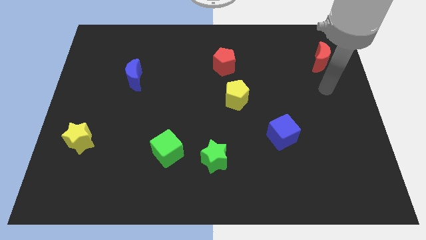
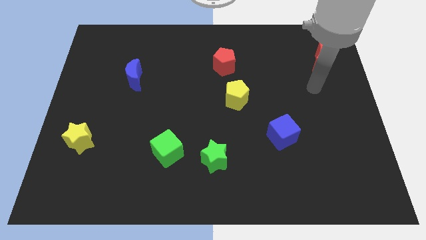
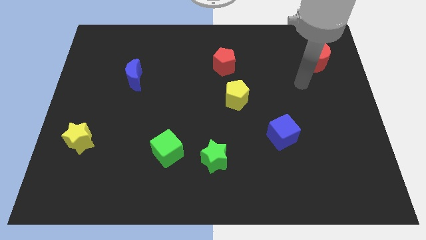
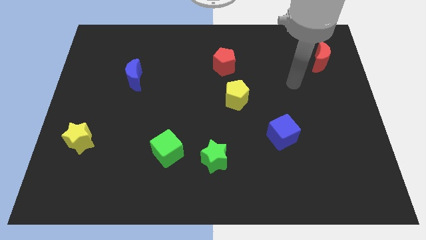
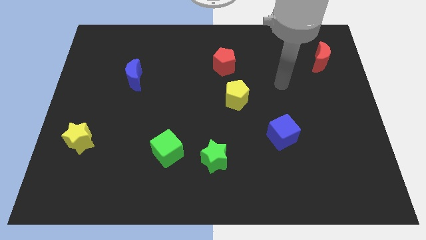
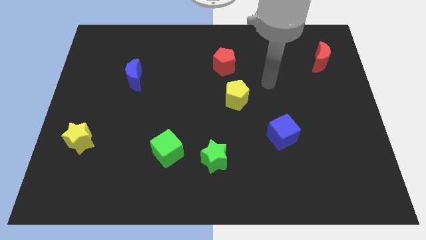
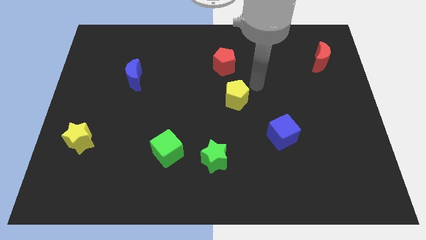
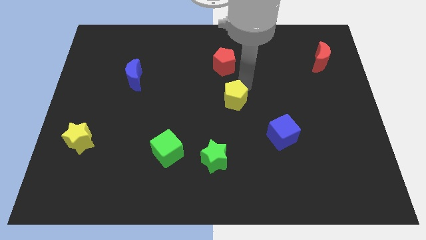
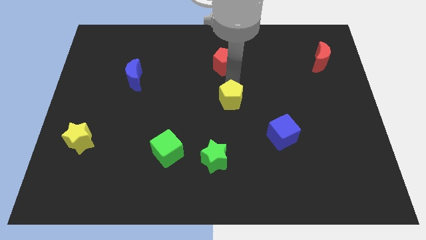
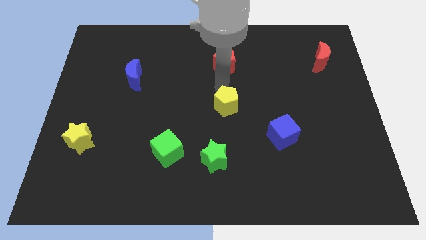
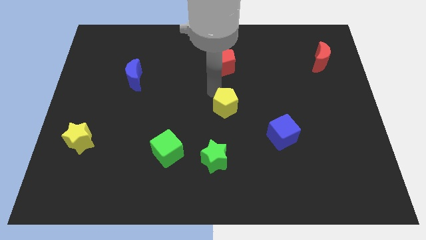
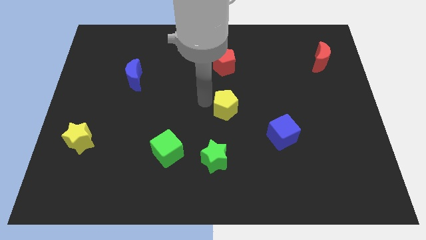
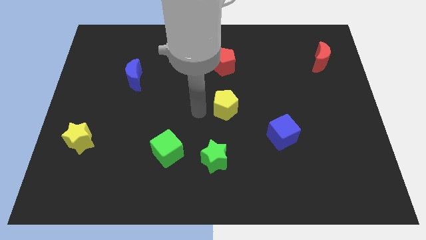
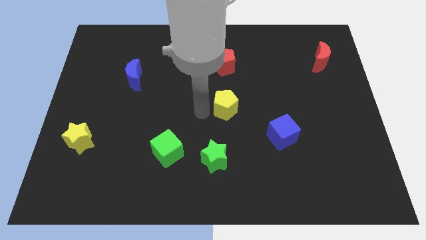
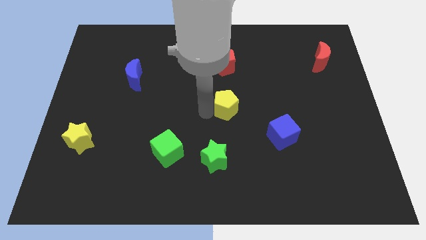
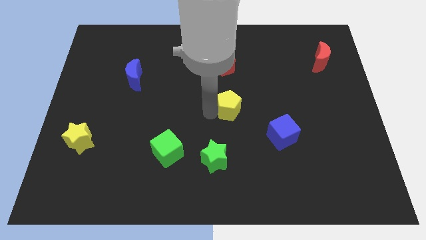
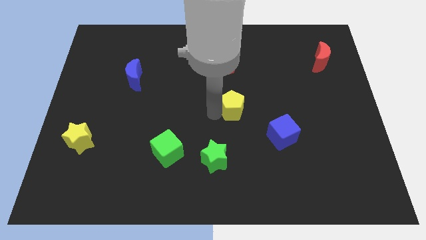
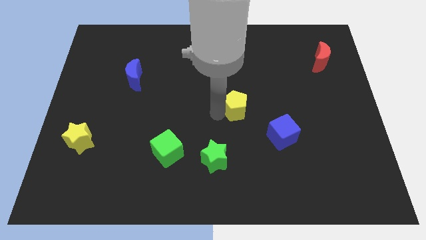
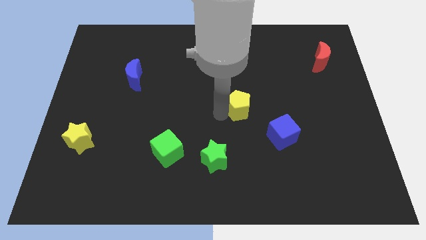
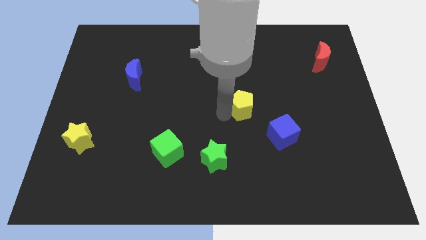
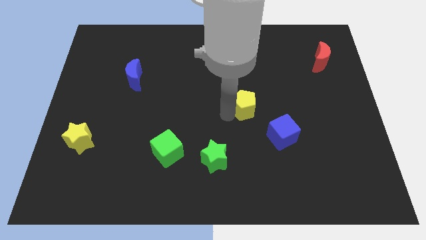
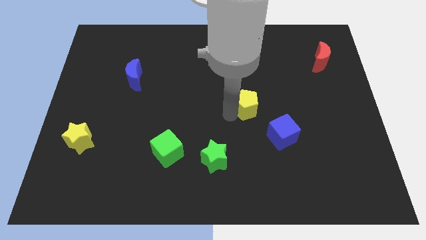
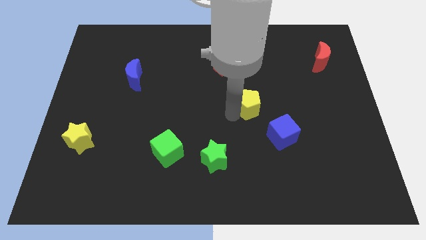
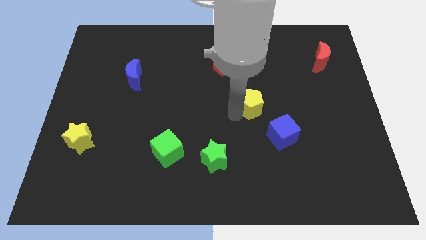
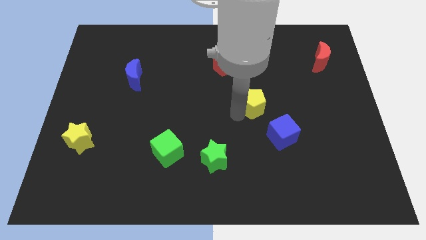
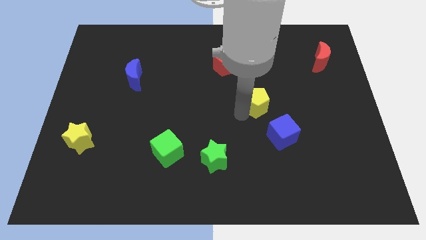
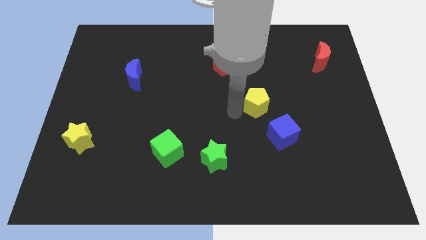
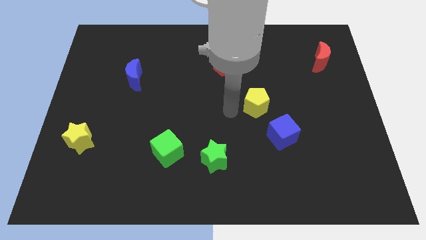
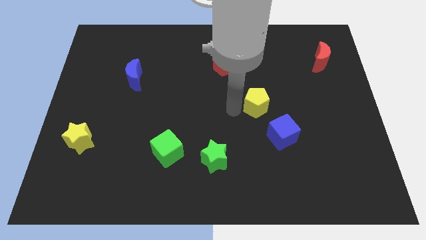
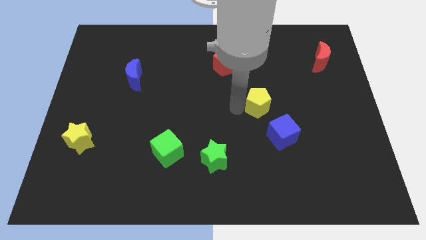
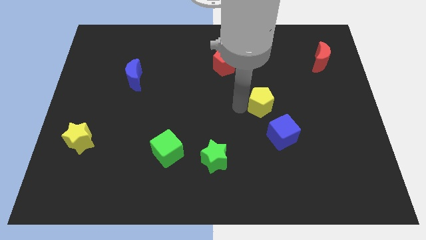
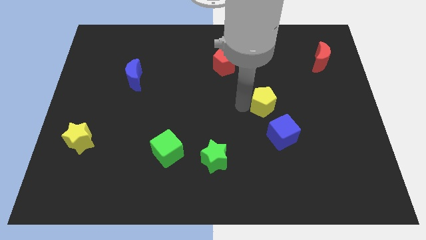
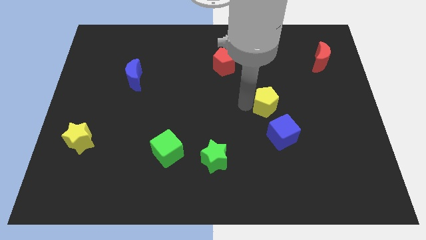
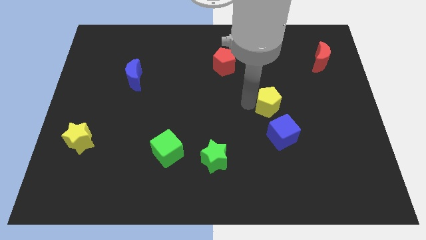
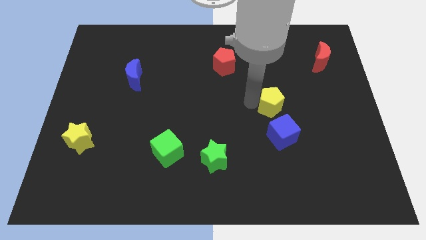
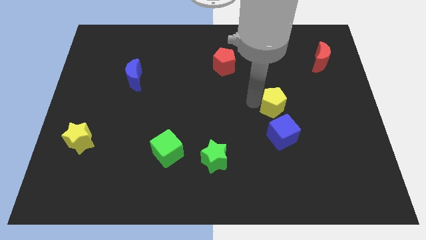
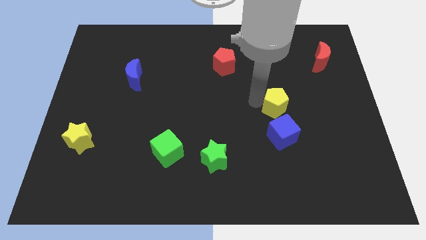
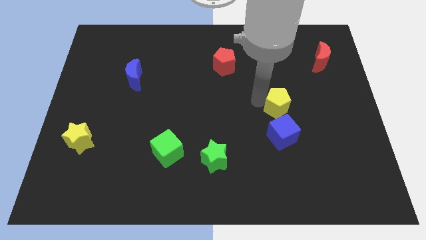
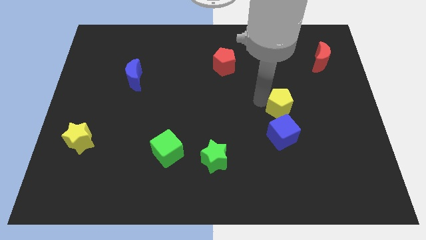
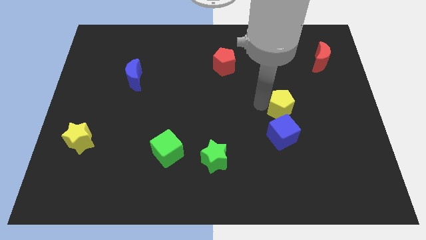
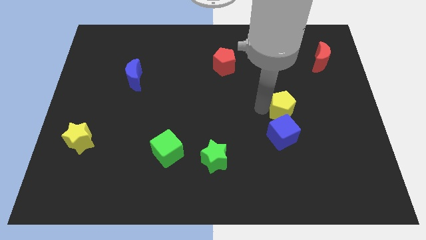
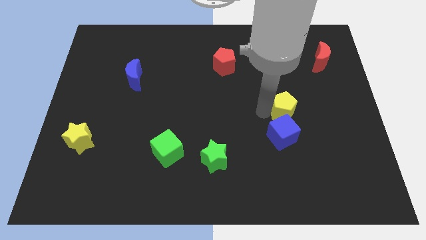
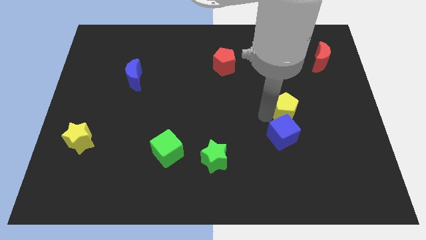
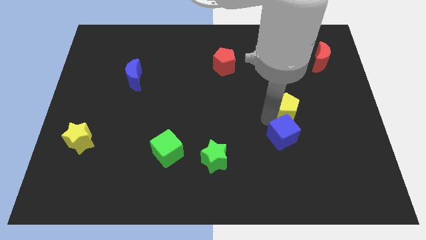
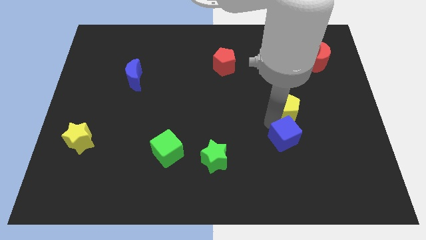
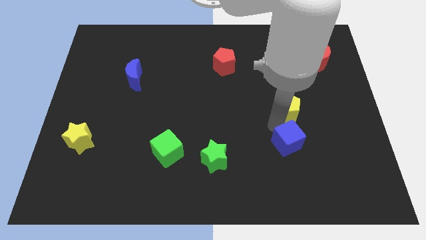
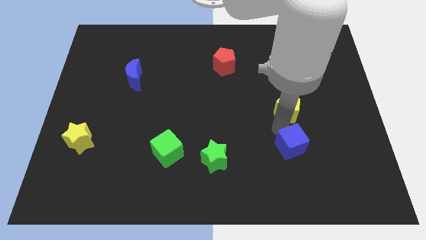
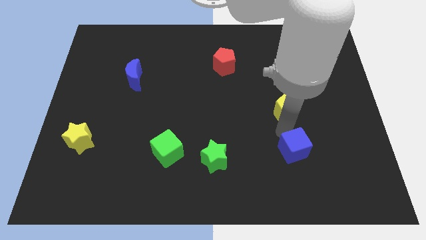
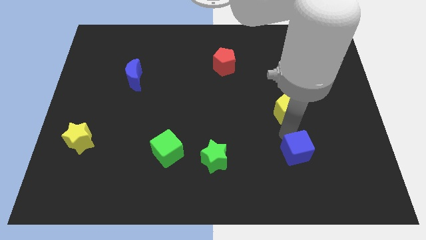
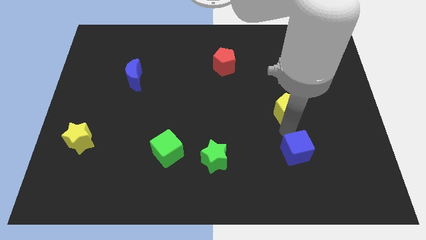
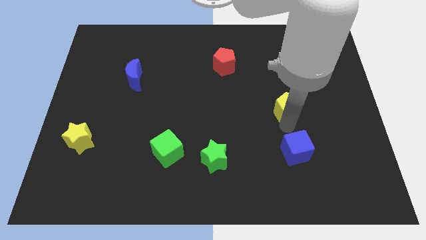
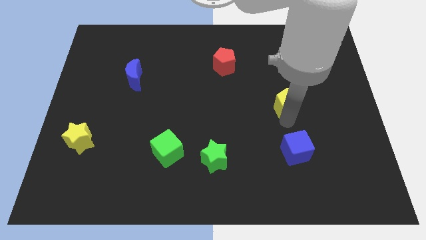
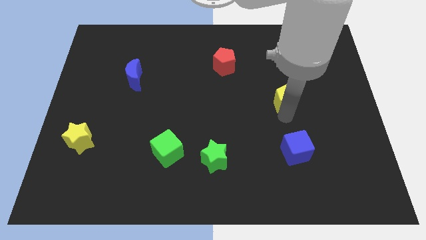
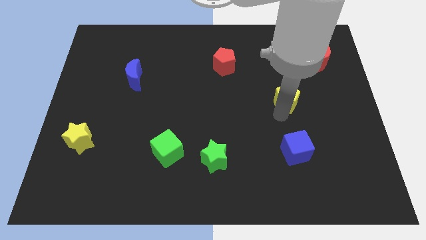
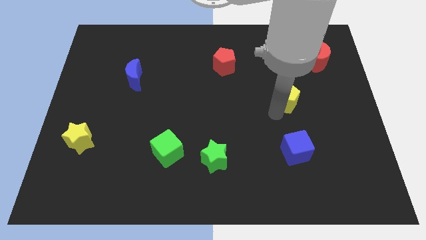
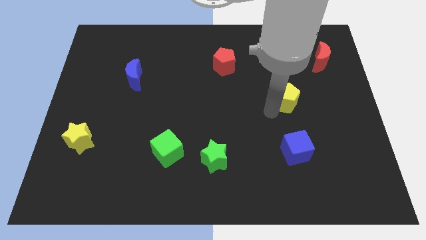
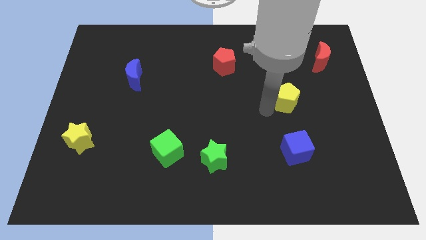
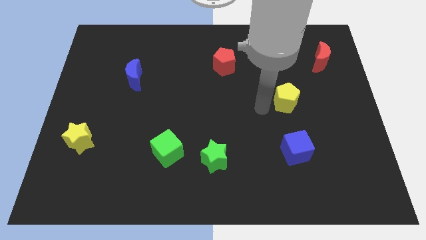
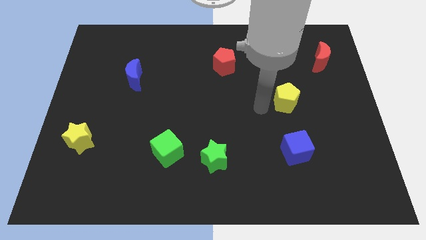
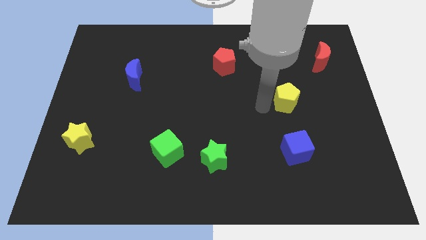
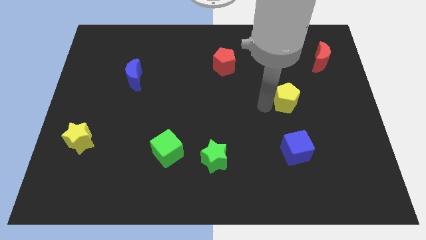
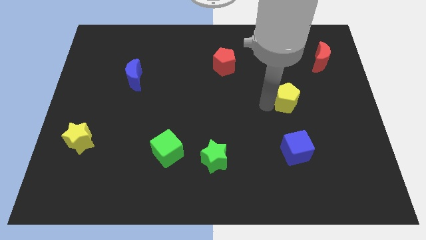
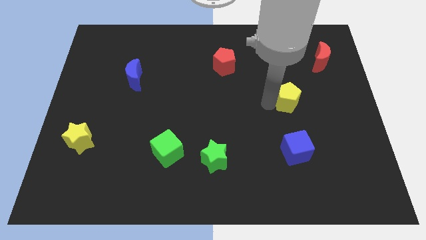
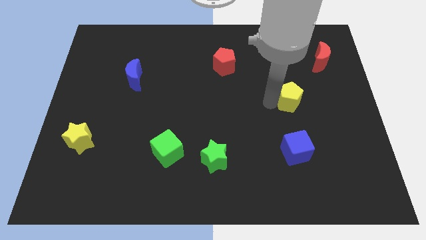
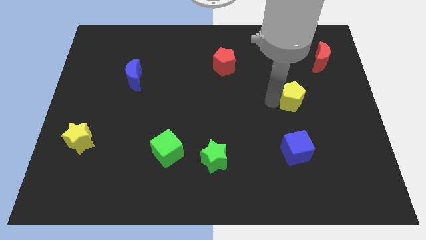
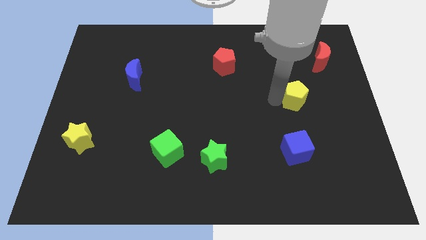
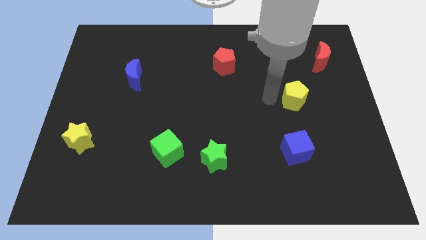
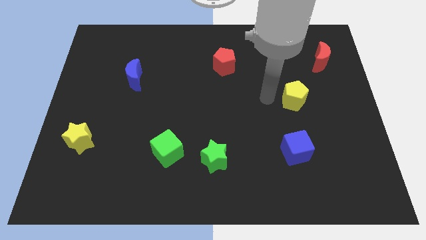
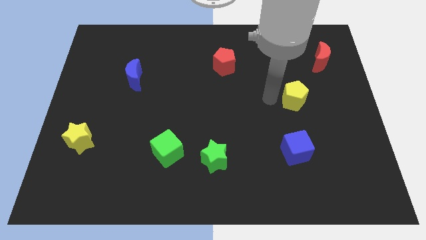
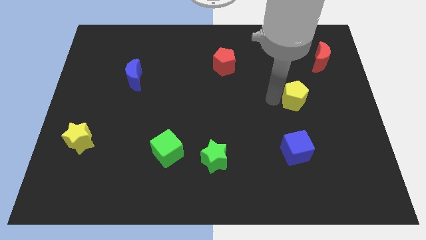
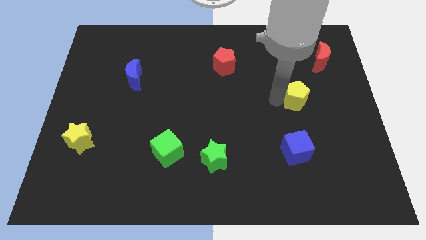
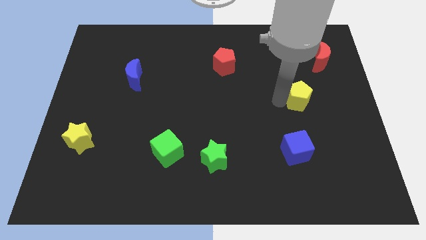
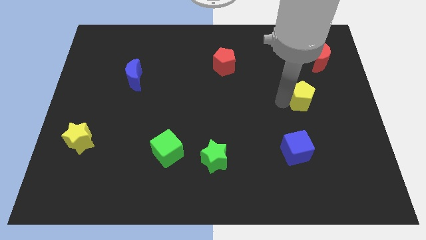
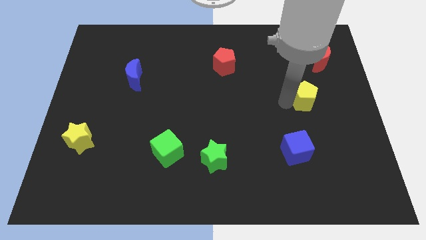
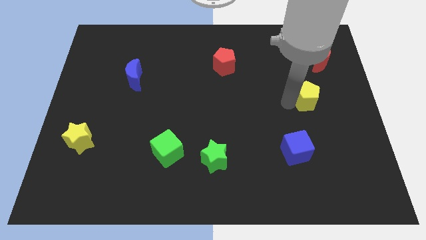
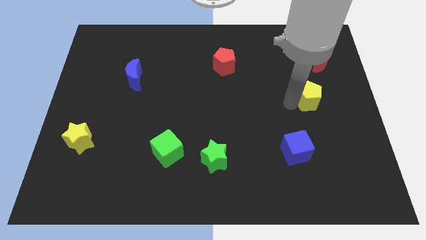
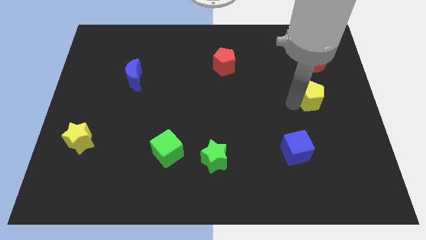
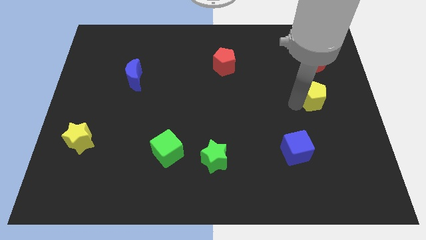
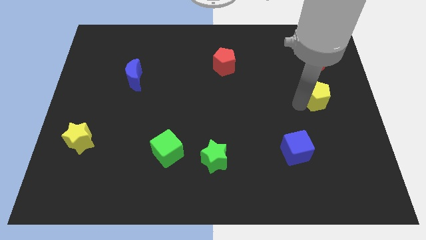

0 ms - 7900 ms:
slide the yellow pentagon to the right side of the board
